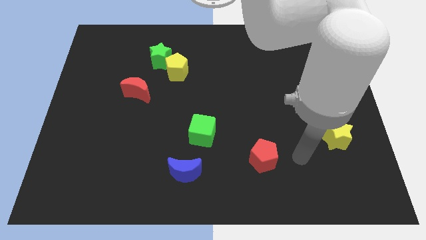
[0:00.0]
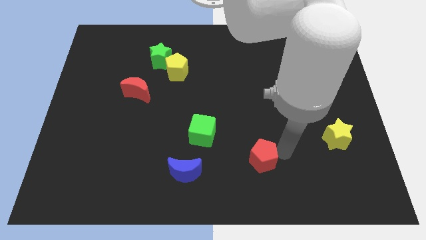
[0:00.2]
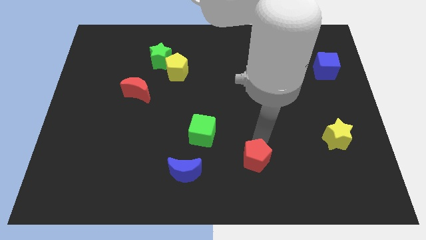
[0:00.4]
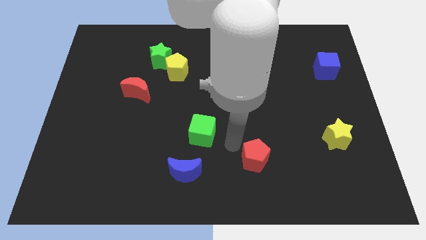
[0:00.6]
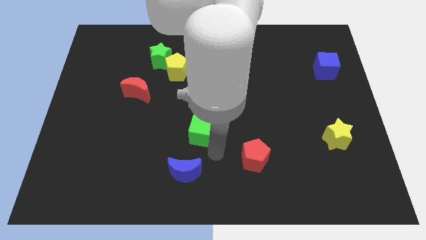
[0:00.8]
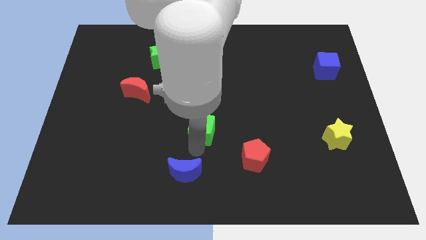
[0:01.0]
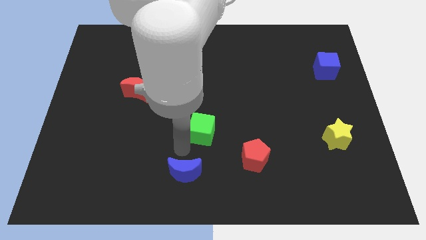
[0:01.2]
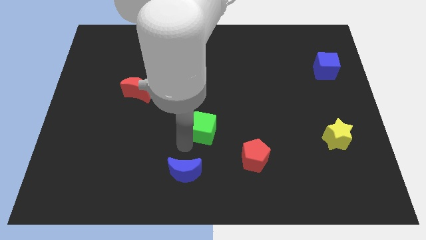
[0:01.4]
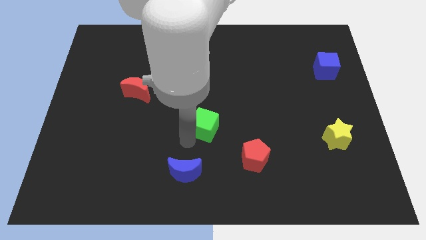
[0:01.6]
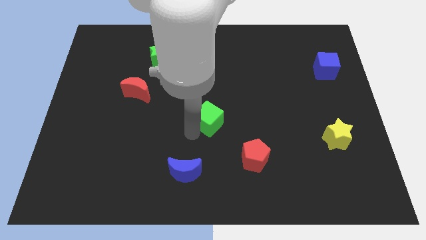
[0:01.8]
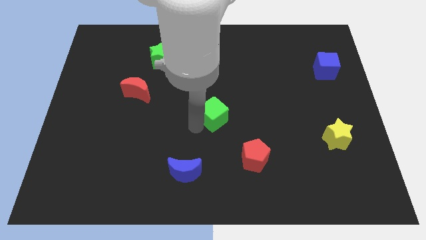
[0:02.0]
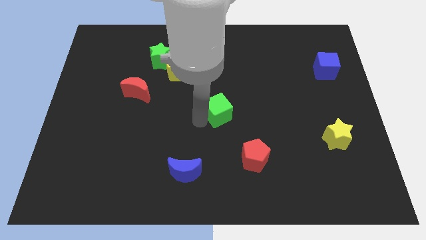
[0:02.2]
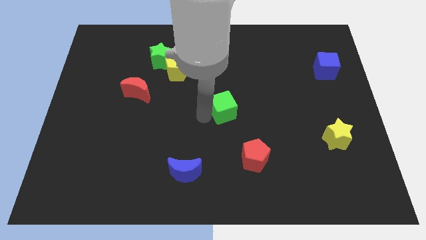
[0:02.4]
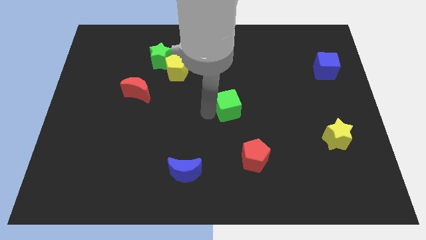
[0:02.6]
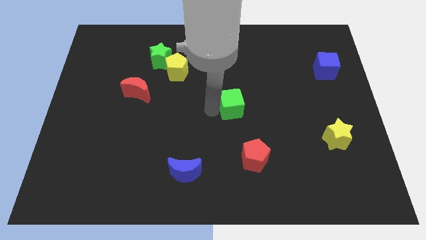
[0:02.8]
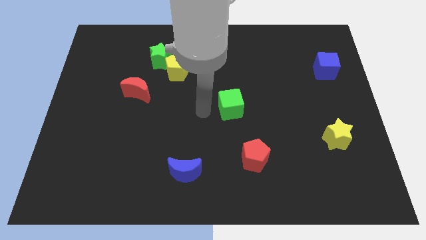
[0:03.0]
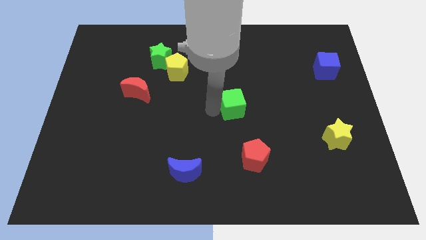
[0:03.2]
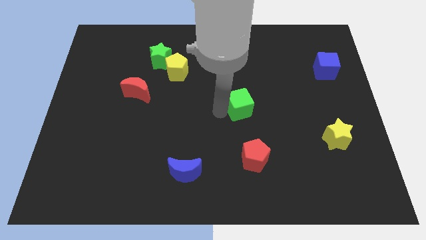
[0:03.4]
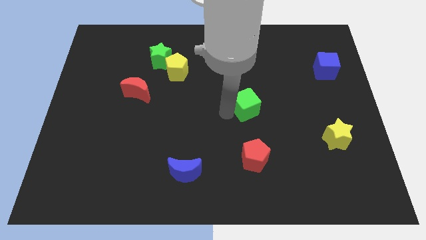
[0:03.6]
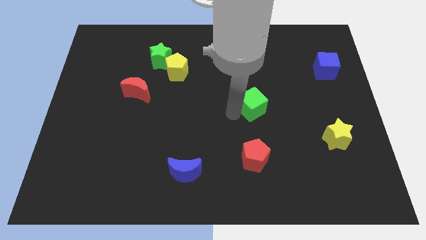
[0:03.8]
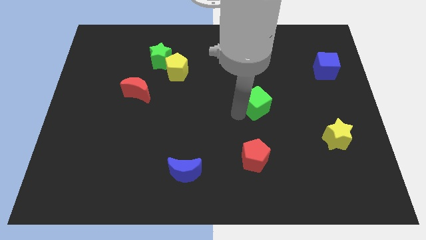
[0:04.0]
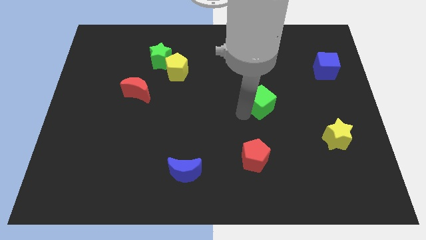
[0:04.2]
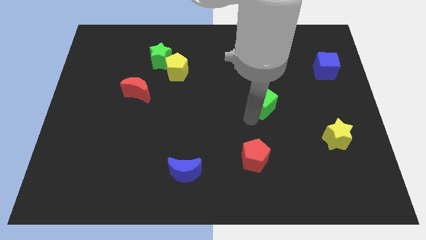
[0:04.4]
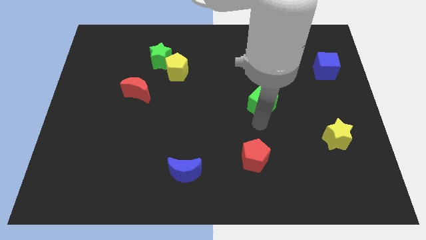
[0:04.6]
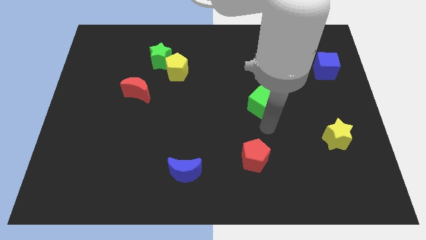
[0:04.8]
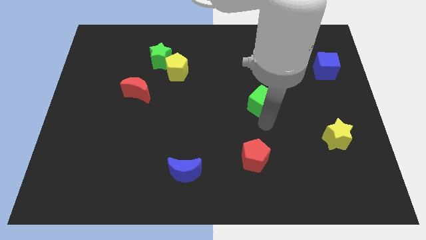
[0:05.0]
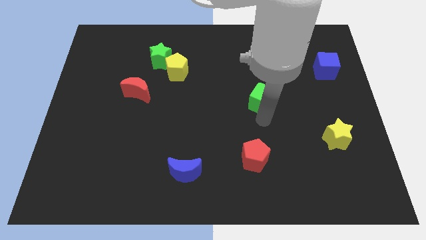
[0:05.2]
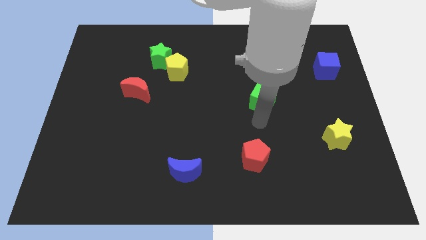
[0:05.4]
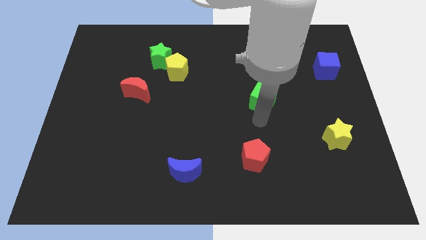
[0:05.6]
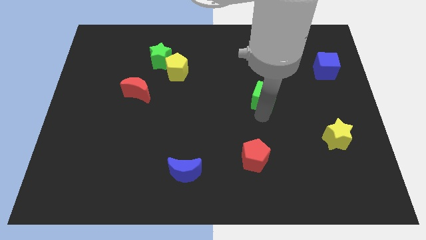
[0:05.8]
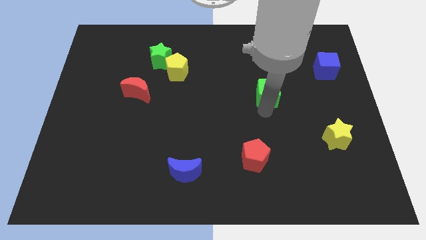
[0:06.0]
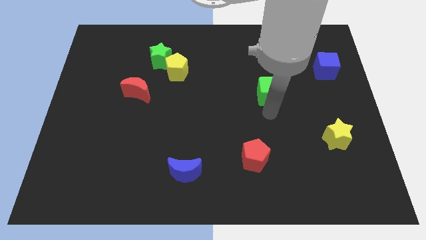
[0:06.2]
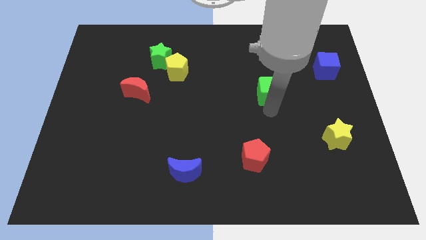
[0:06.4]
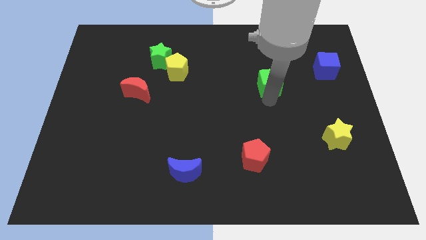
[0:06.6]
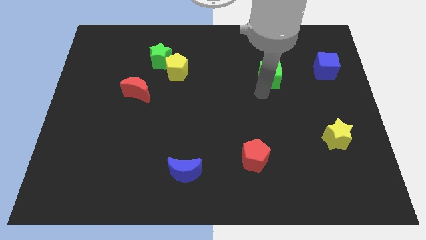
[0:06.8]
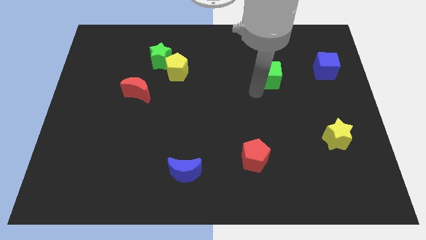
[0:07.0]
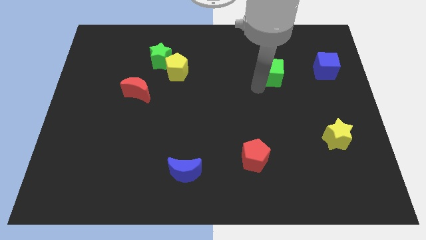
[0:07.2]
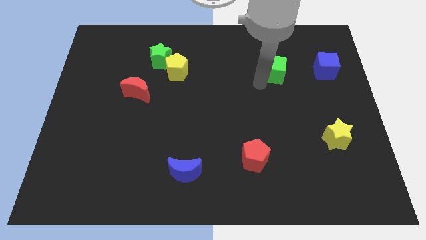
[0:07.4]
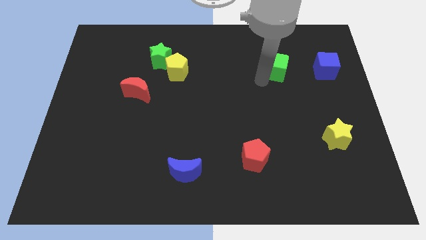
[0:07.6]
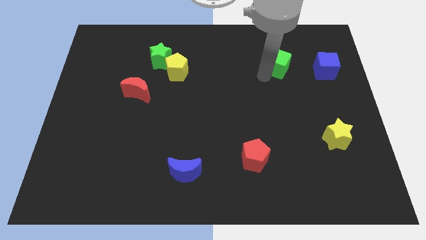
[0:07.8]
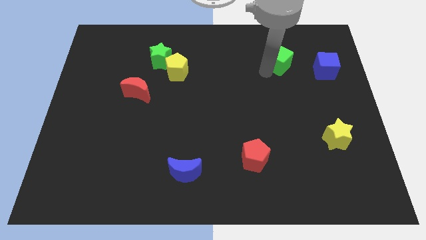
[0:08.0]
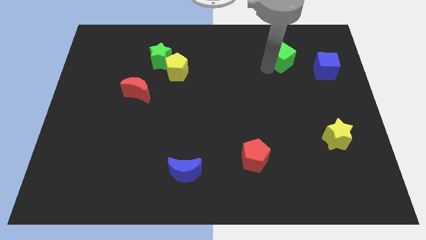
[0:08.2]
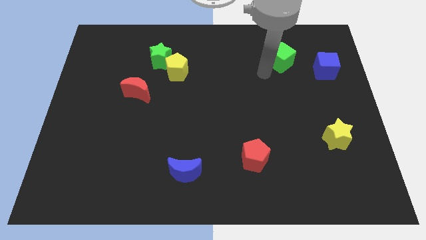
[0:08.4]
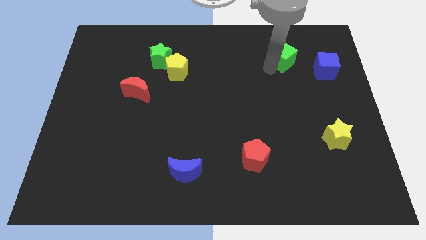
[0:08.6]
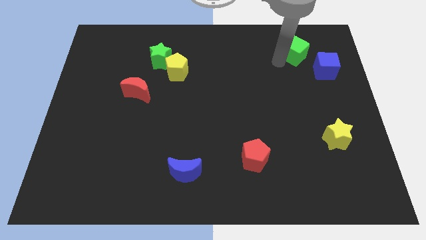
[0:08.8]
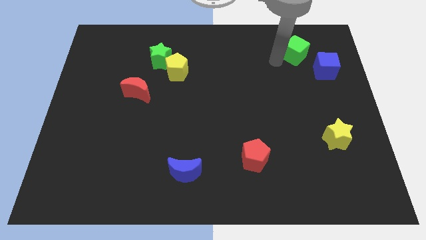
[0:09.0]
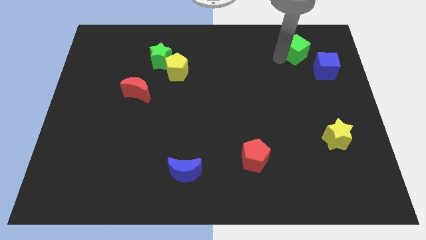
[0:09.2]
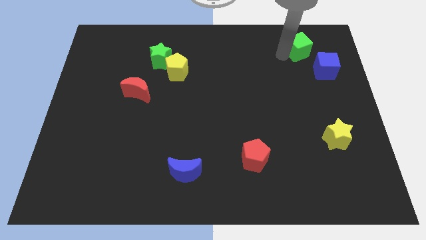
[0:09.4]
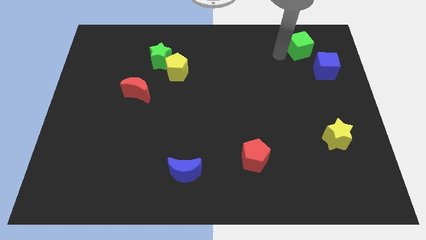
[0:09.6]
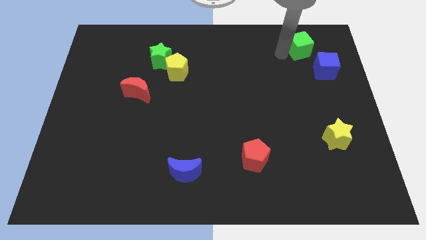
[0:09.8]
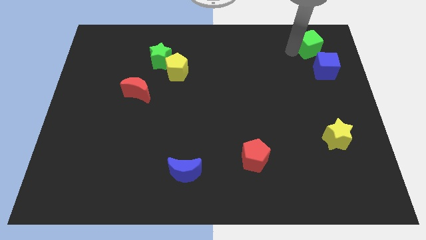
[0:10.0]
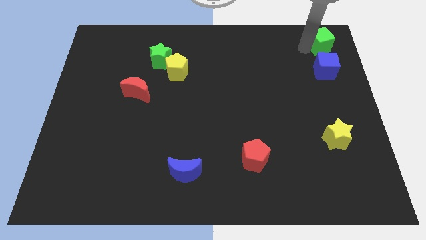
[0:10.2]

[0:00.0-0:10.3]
move the green cube to the upper right corner

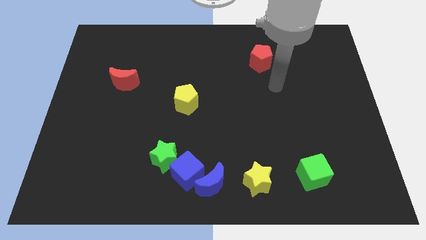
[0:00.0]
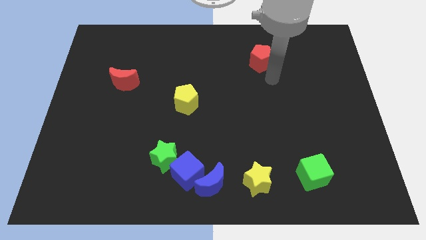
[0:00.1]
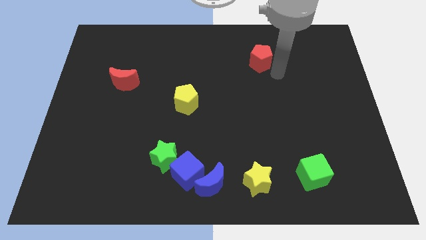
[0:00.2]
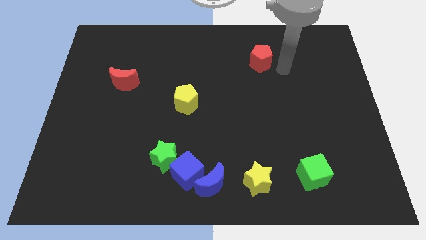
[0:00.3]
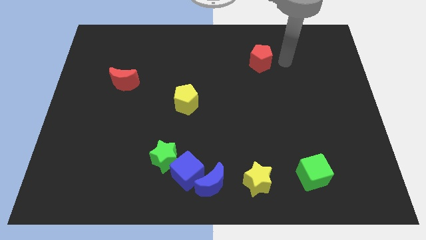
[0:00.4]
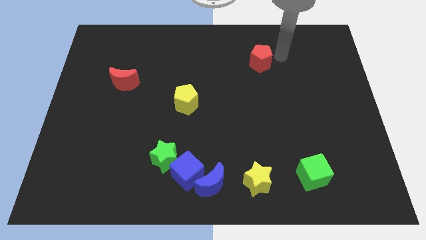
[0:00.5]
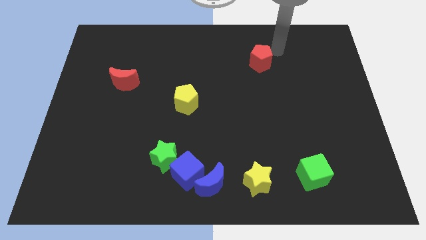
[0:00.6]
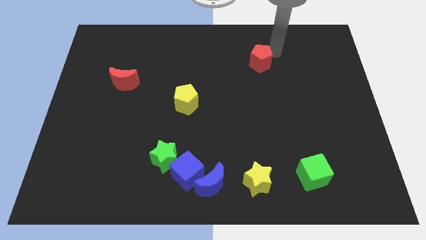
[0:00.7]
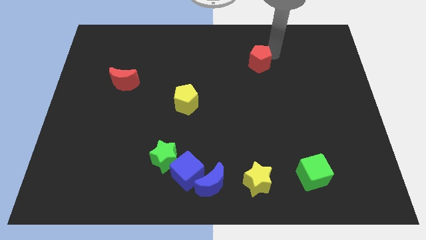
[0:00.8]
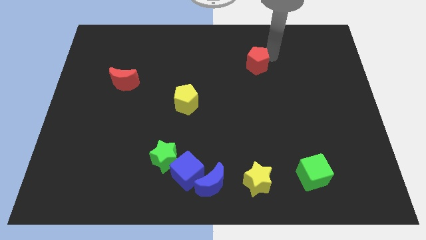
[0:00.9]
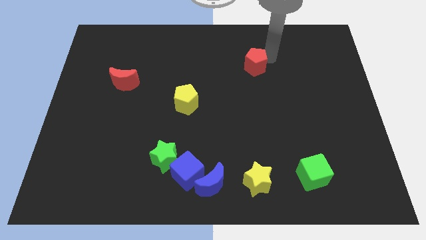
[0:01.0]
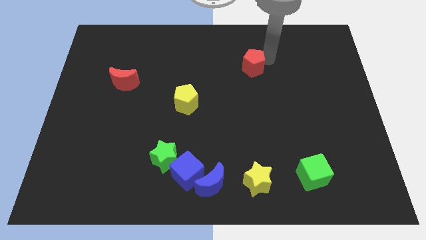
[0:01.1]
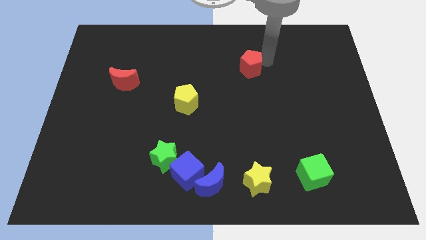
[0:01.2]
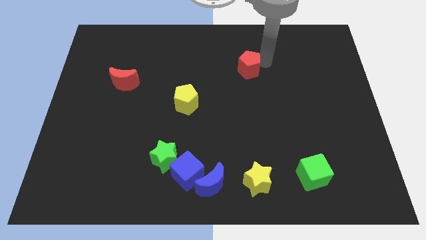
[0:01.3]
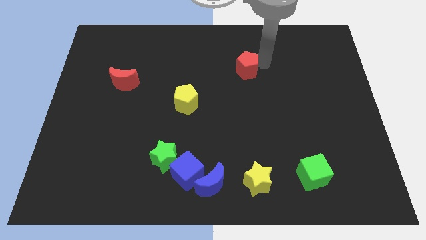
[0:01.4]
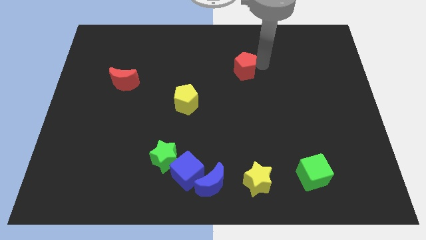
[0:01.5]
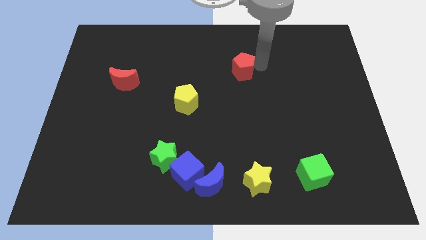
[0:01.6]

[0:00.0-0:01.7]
move the red pentagon to the middle
